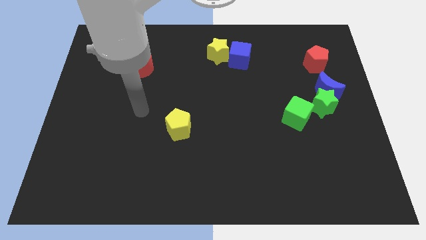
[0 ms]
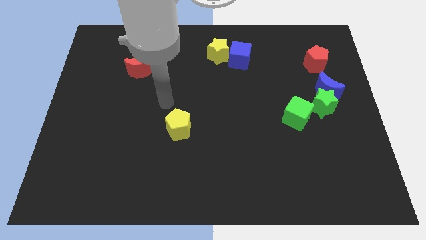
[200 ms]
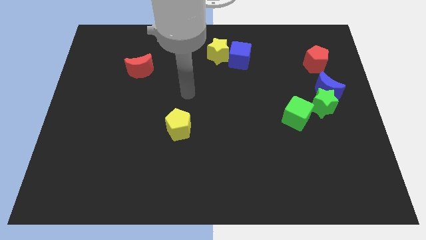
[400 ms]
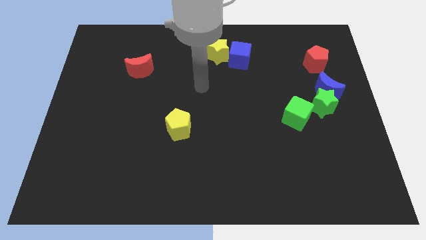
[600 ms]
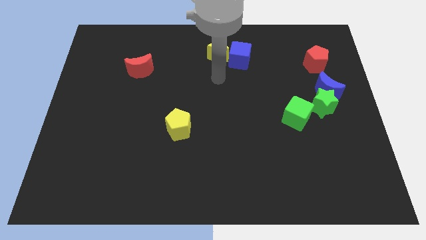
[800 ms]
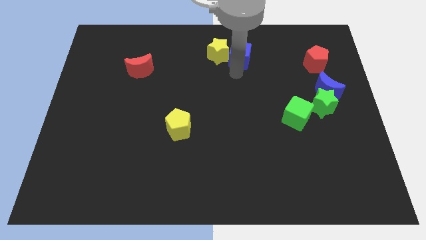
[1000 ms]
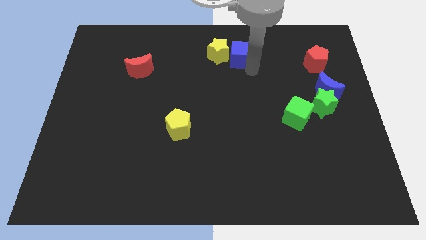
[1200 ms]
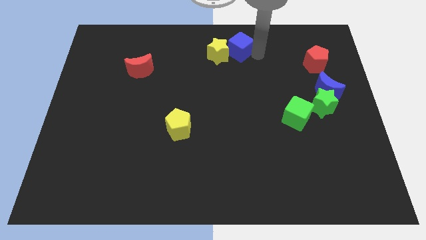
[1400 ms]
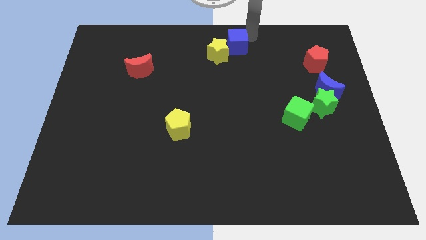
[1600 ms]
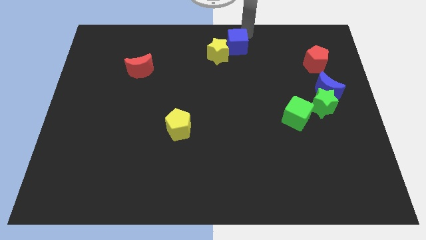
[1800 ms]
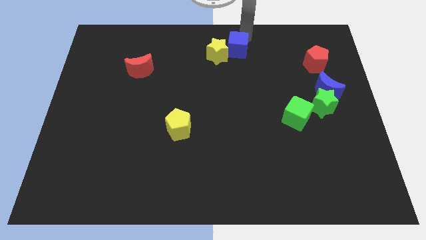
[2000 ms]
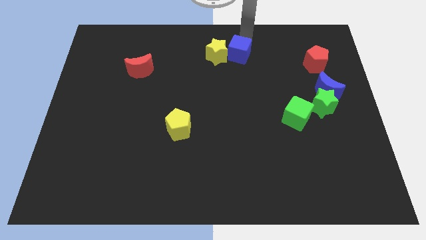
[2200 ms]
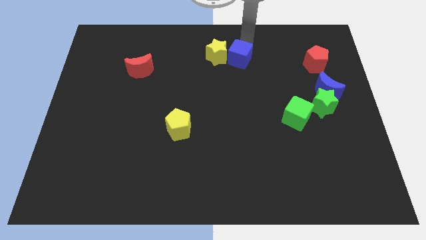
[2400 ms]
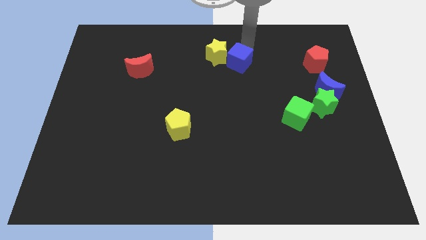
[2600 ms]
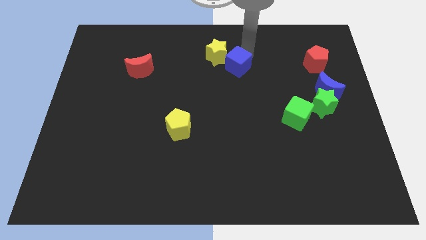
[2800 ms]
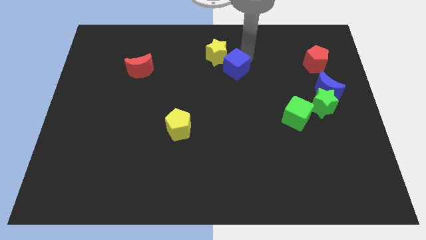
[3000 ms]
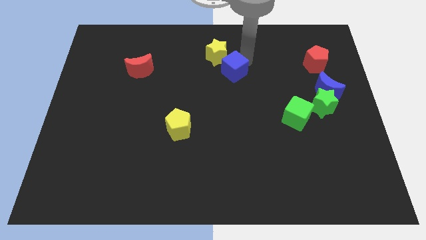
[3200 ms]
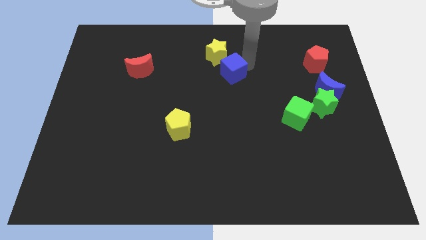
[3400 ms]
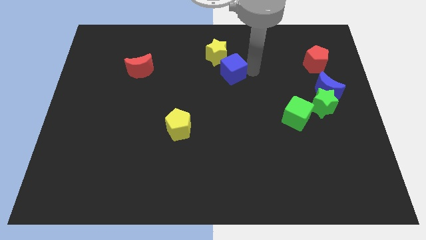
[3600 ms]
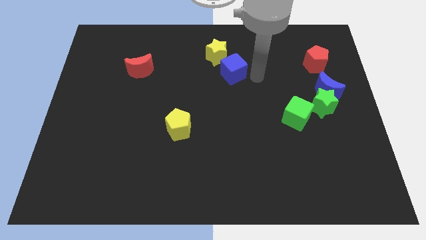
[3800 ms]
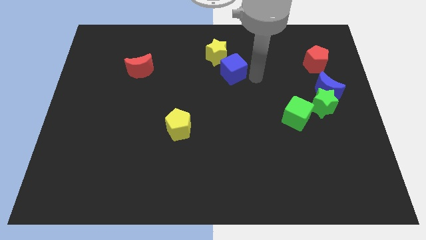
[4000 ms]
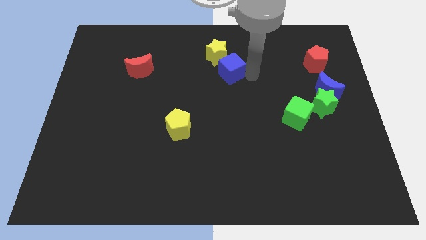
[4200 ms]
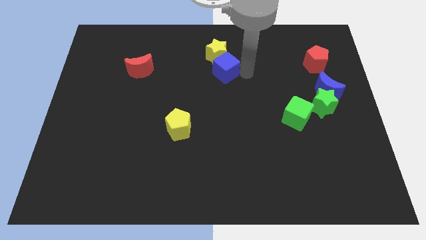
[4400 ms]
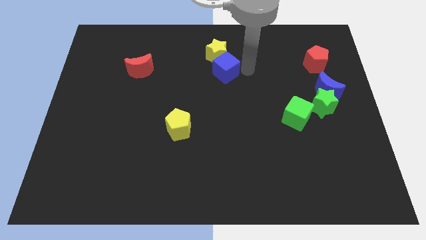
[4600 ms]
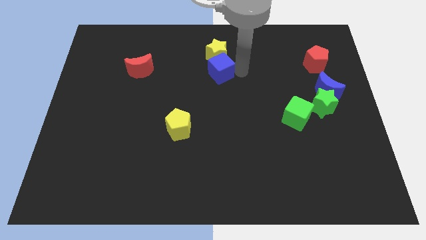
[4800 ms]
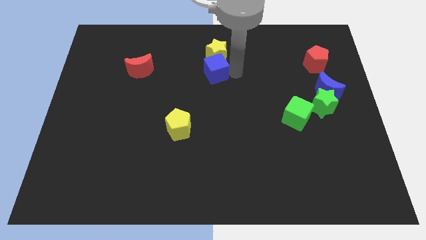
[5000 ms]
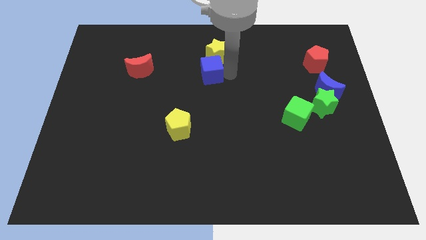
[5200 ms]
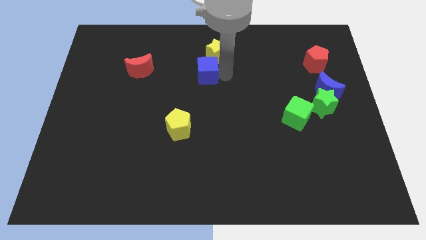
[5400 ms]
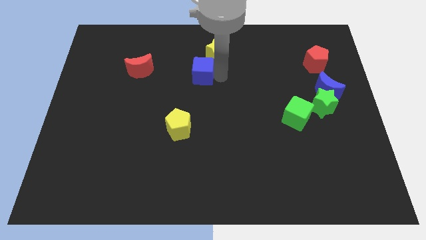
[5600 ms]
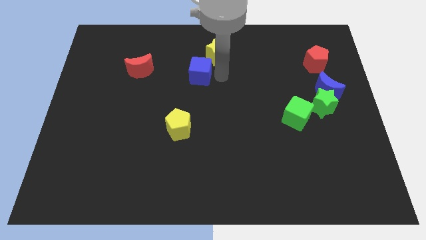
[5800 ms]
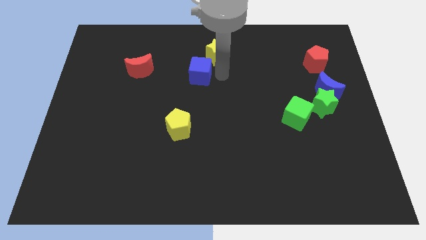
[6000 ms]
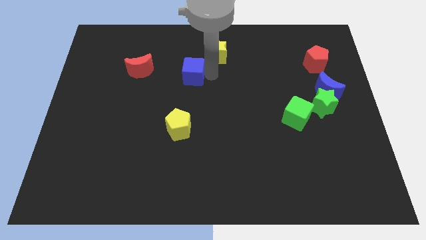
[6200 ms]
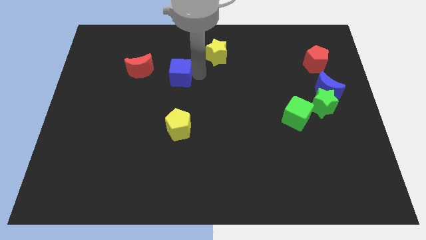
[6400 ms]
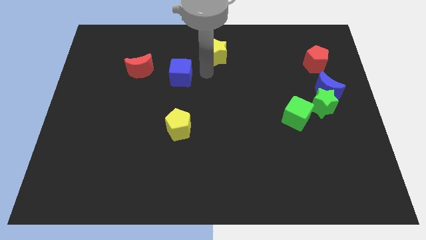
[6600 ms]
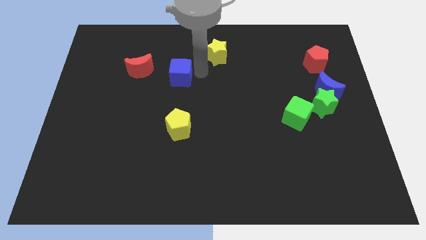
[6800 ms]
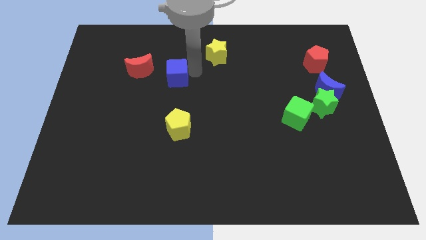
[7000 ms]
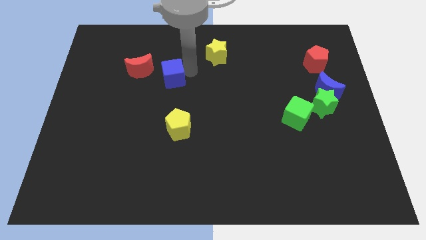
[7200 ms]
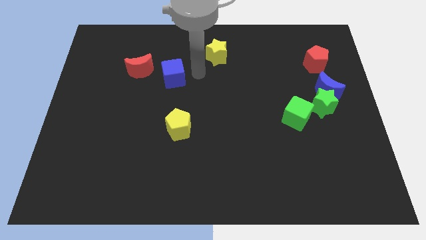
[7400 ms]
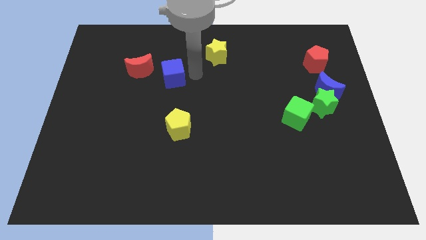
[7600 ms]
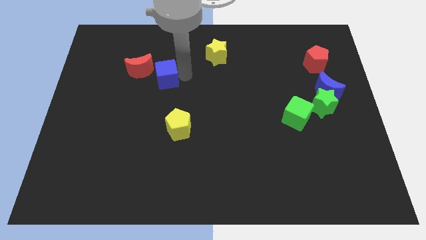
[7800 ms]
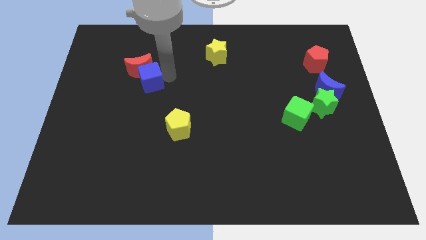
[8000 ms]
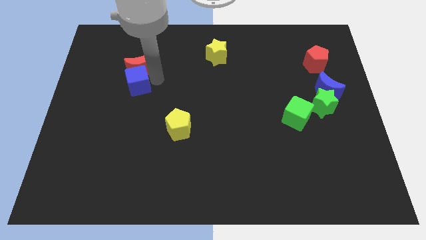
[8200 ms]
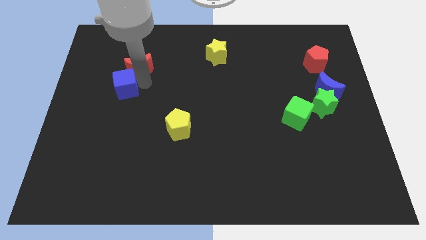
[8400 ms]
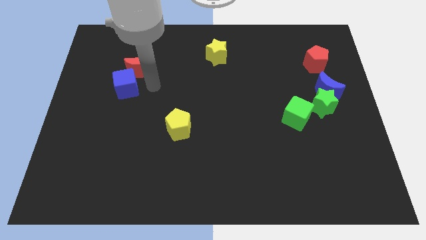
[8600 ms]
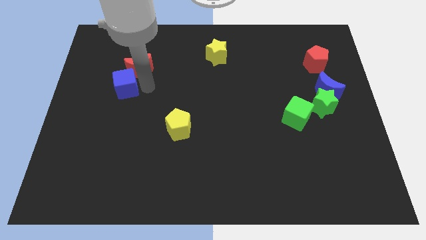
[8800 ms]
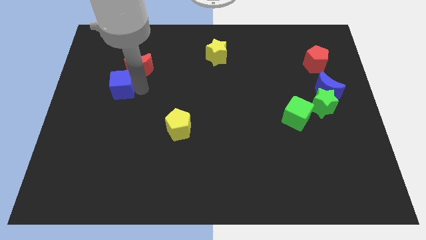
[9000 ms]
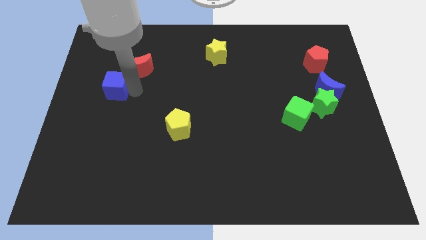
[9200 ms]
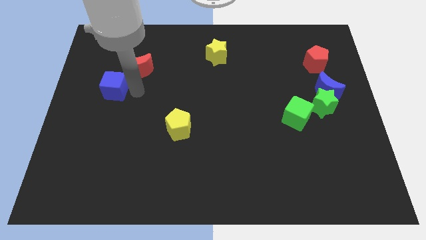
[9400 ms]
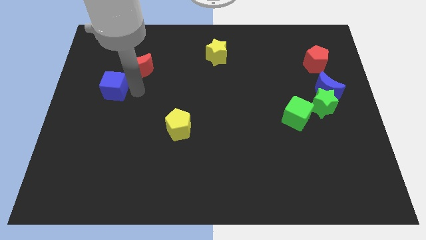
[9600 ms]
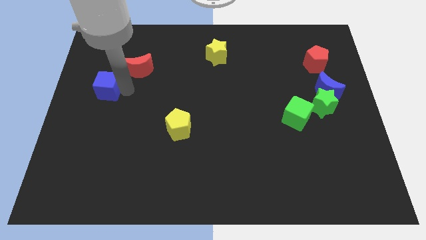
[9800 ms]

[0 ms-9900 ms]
move the blue cube to the left side of the board

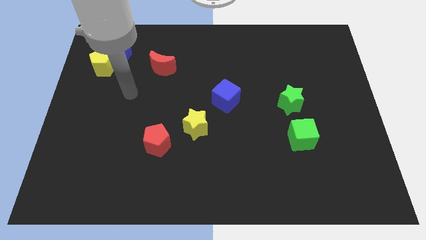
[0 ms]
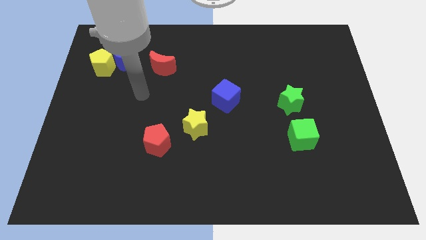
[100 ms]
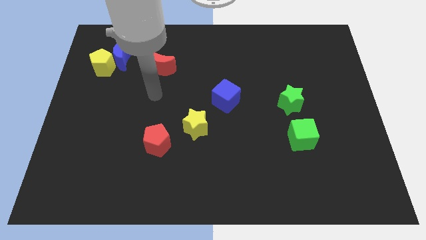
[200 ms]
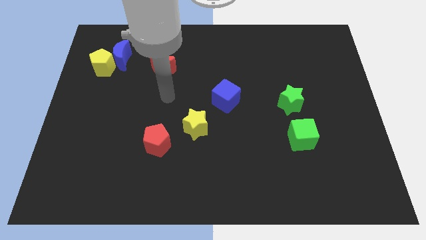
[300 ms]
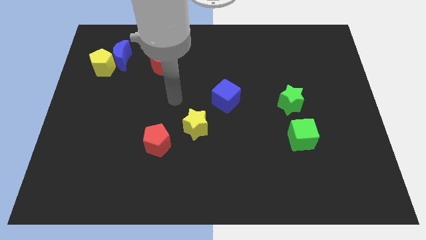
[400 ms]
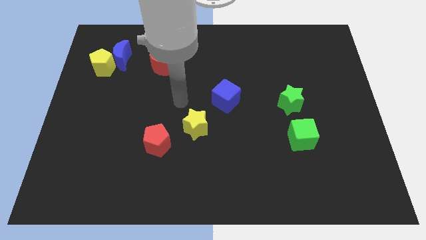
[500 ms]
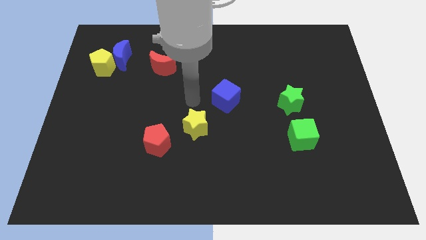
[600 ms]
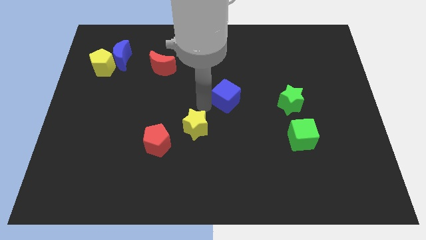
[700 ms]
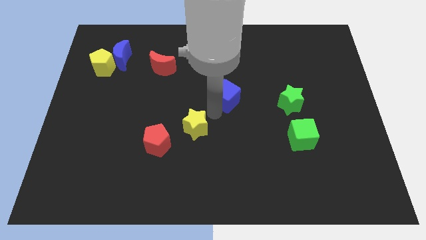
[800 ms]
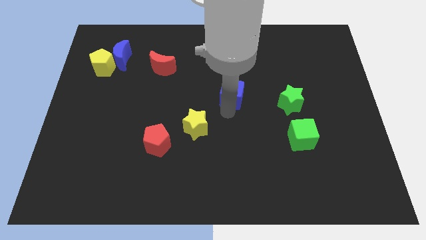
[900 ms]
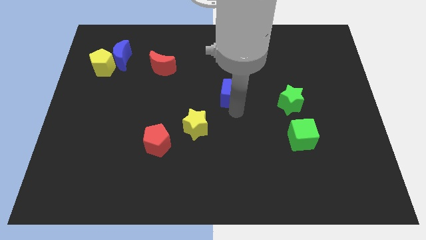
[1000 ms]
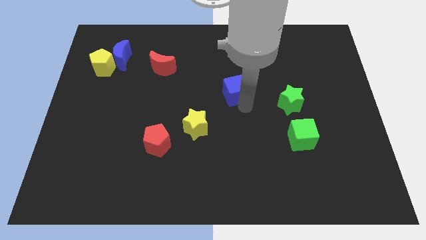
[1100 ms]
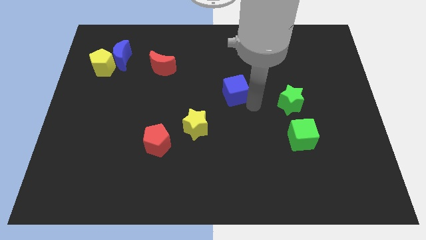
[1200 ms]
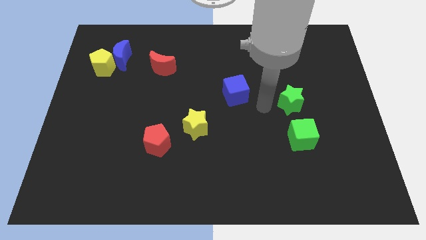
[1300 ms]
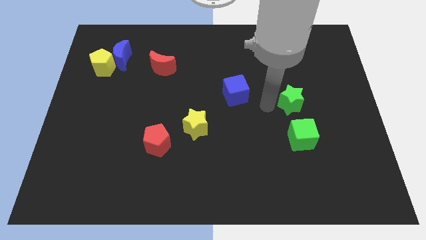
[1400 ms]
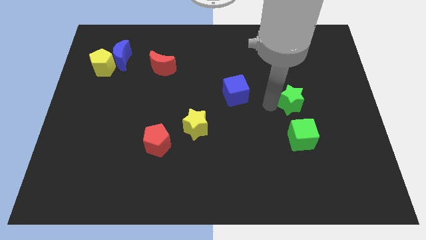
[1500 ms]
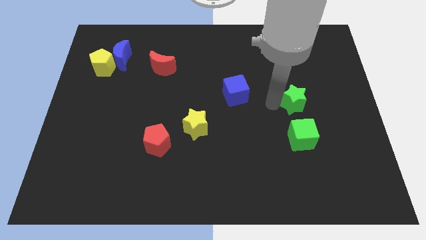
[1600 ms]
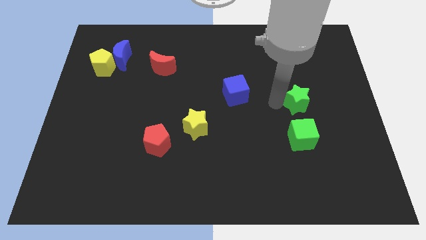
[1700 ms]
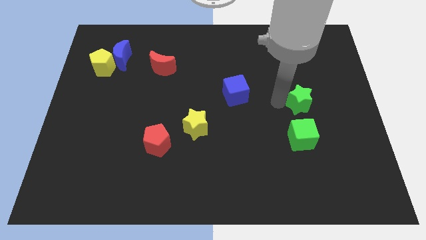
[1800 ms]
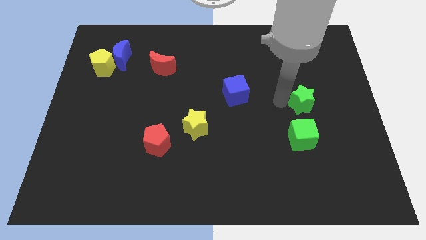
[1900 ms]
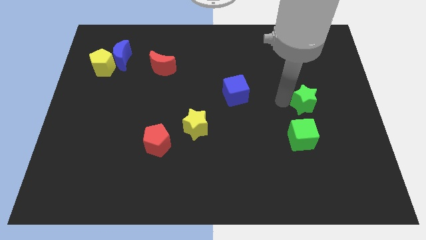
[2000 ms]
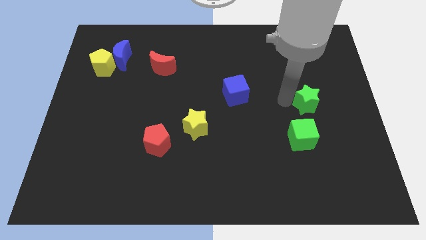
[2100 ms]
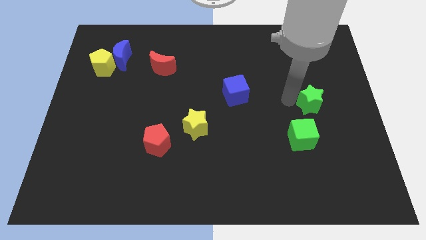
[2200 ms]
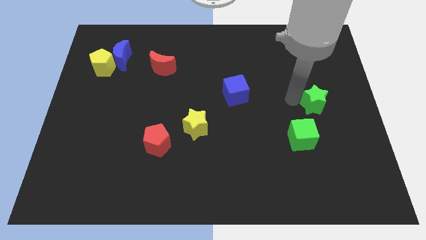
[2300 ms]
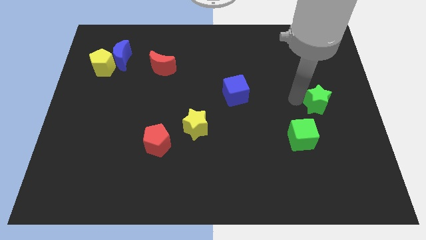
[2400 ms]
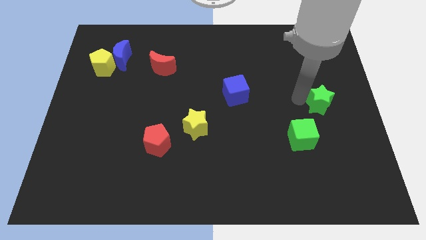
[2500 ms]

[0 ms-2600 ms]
move the green star to the right side of the board
